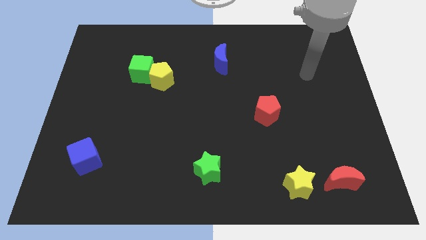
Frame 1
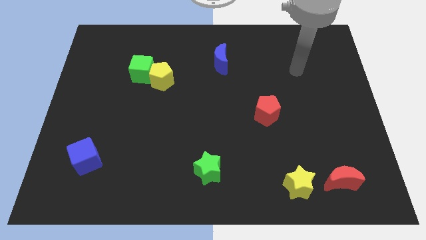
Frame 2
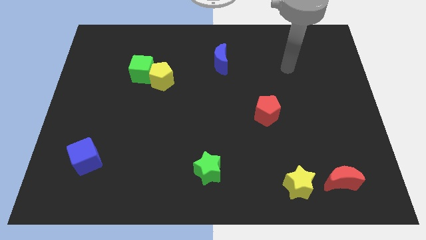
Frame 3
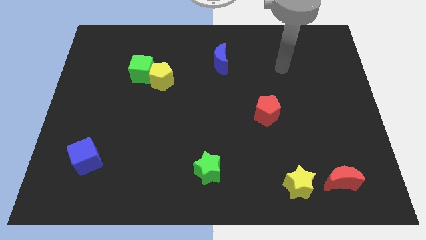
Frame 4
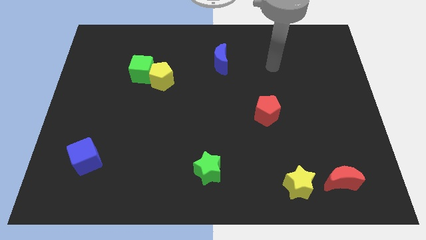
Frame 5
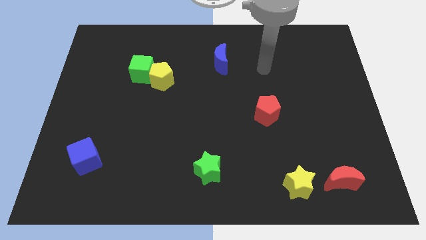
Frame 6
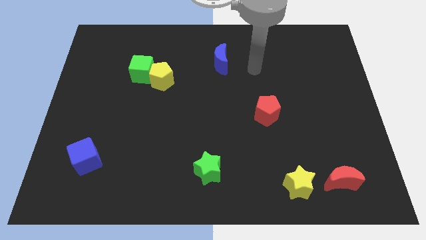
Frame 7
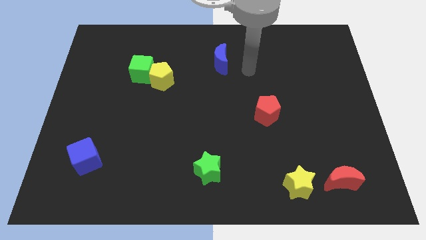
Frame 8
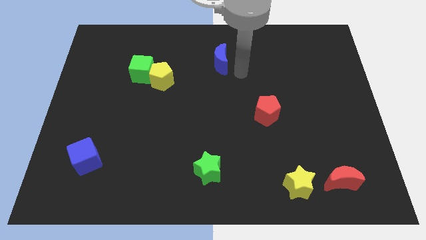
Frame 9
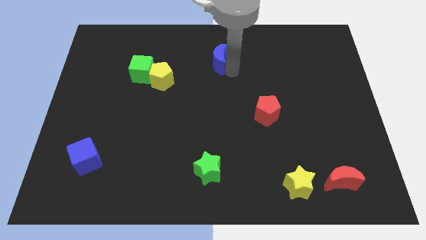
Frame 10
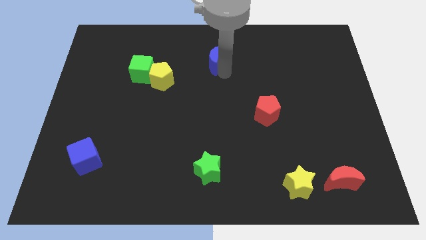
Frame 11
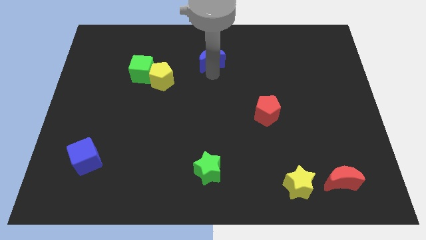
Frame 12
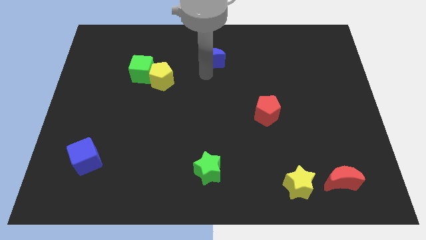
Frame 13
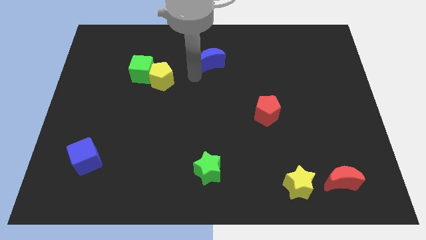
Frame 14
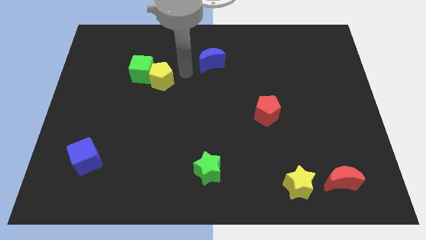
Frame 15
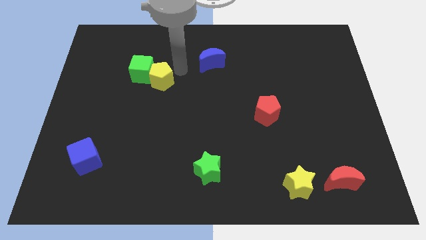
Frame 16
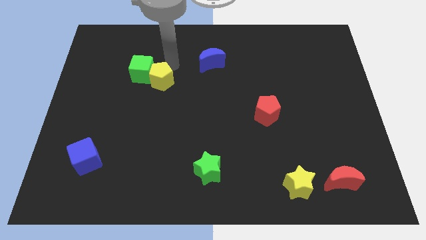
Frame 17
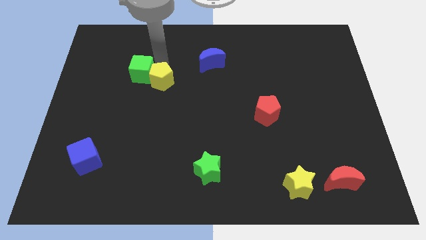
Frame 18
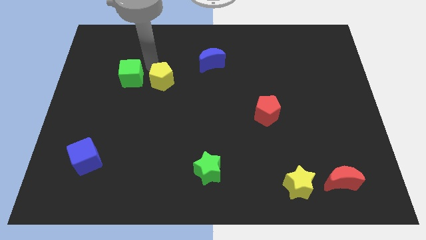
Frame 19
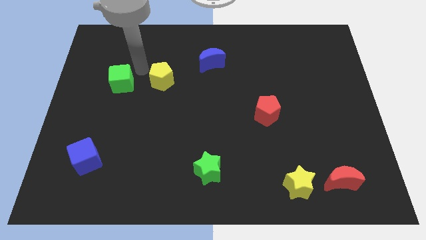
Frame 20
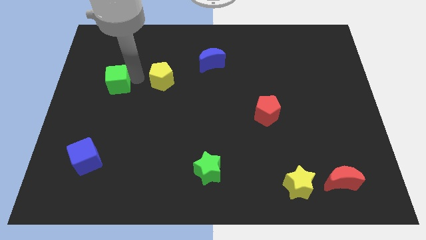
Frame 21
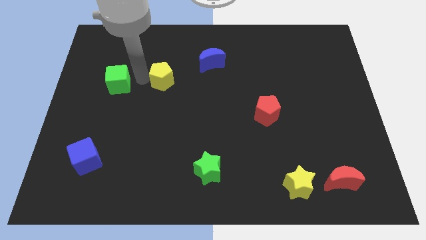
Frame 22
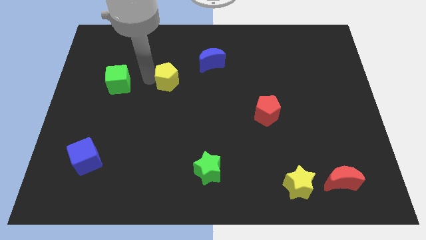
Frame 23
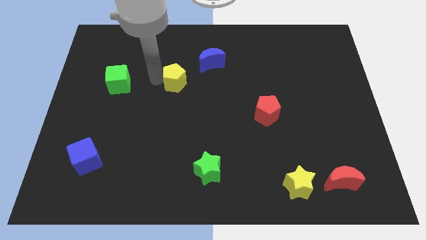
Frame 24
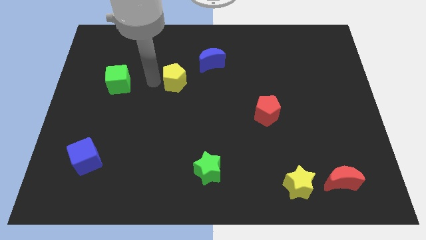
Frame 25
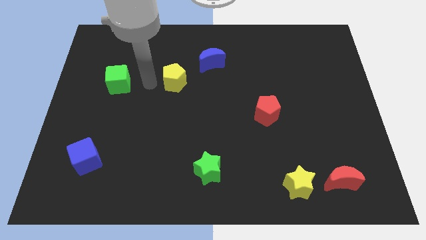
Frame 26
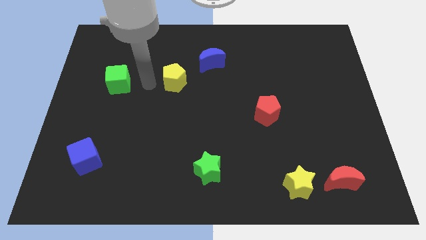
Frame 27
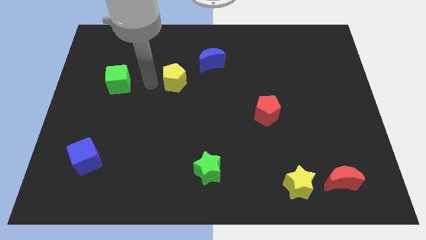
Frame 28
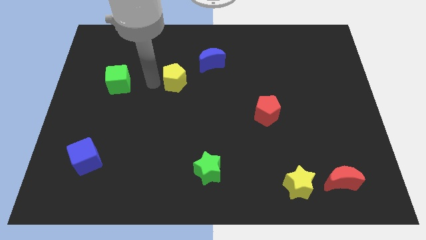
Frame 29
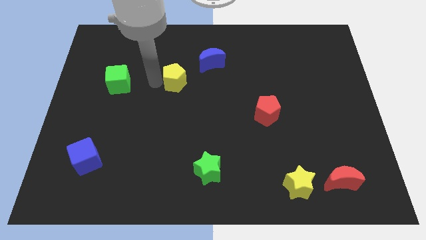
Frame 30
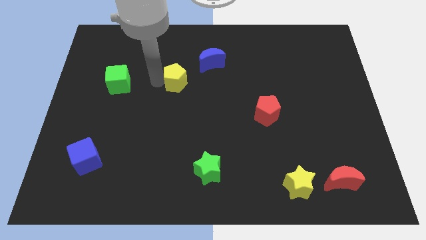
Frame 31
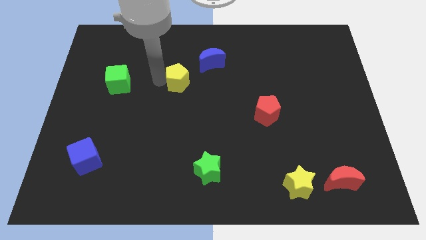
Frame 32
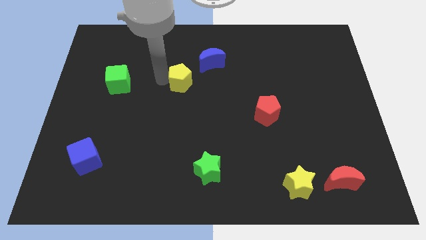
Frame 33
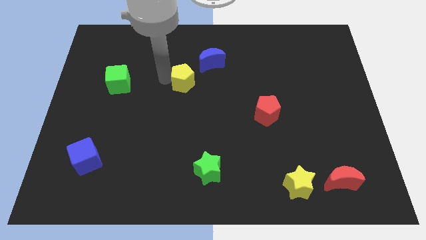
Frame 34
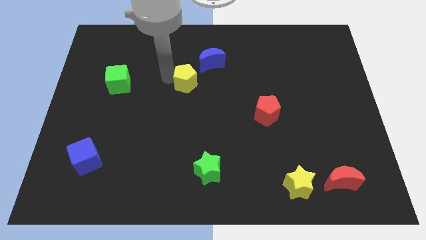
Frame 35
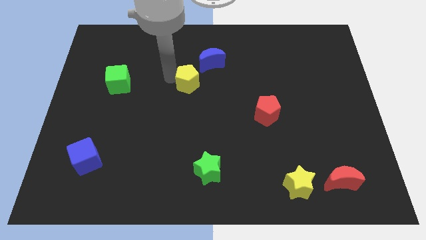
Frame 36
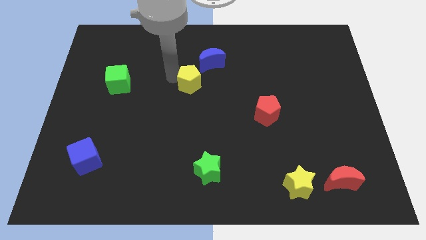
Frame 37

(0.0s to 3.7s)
slightly push the yellow pentagon to the right

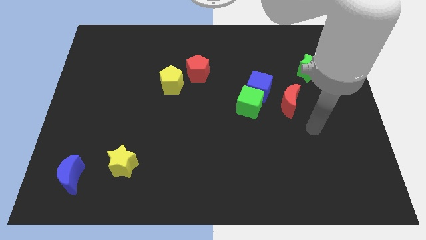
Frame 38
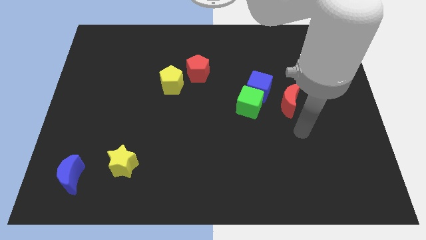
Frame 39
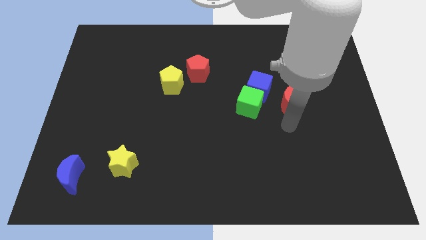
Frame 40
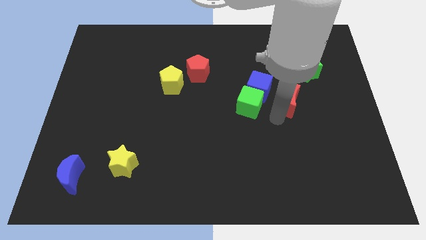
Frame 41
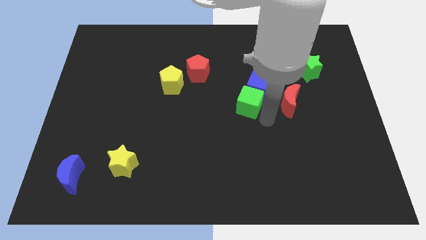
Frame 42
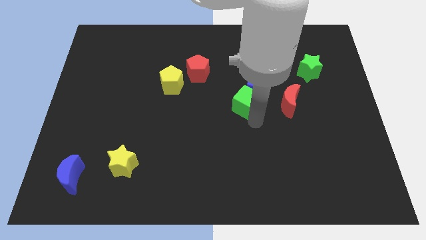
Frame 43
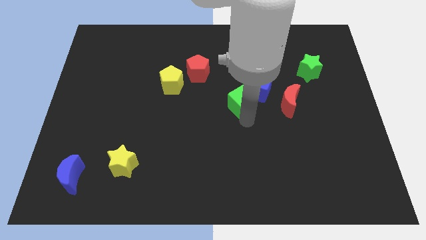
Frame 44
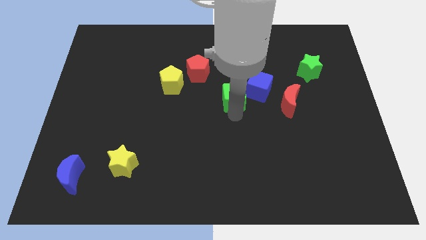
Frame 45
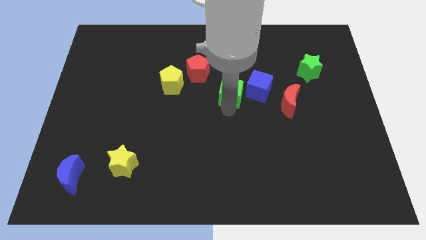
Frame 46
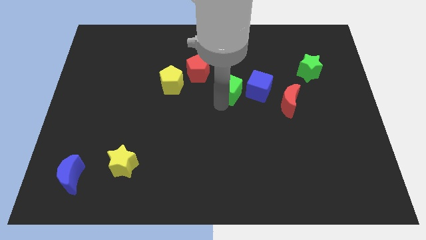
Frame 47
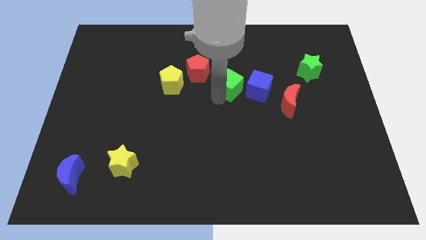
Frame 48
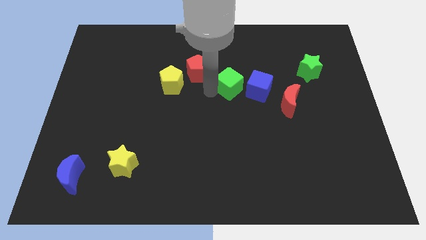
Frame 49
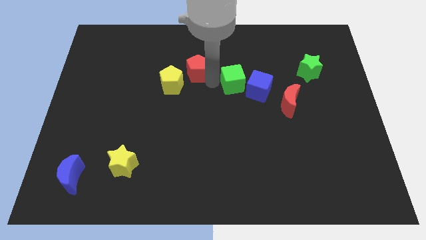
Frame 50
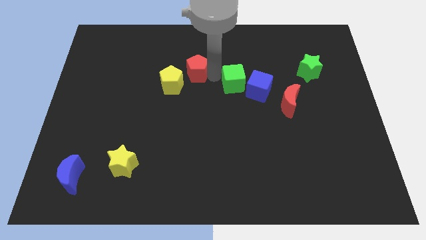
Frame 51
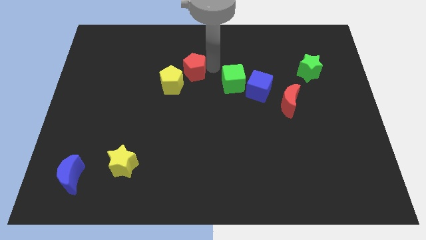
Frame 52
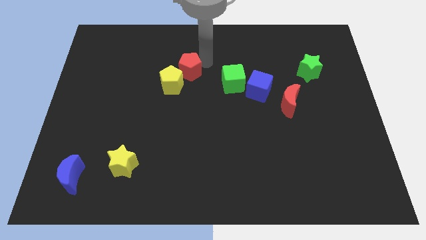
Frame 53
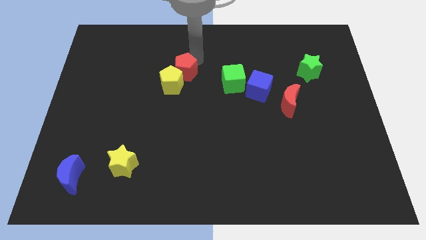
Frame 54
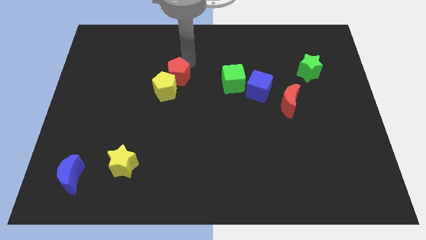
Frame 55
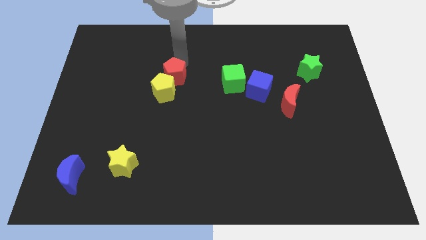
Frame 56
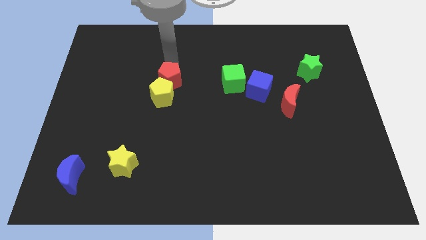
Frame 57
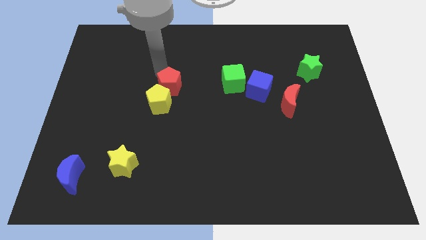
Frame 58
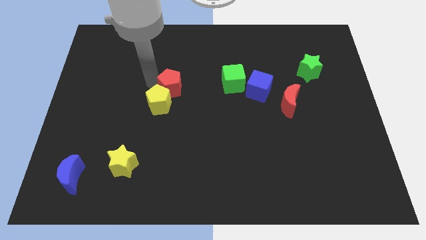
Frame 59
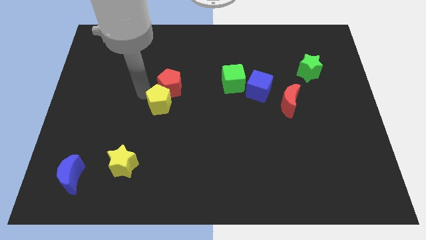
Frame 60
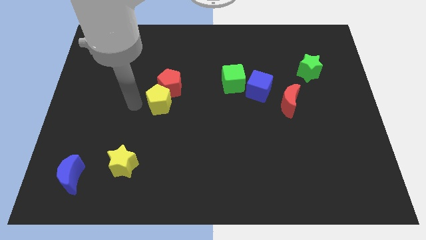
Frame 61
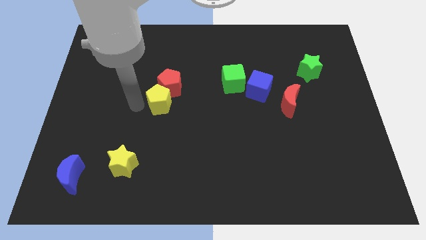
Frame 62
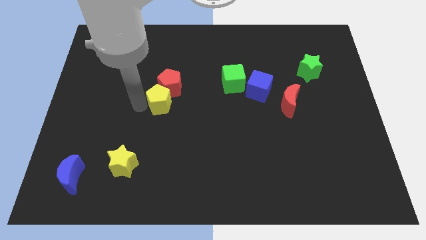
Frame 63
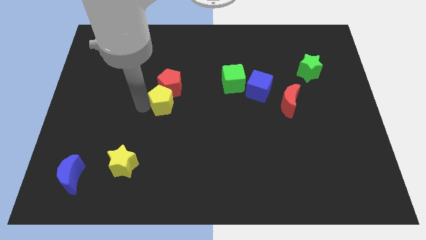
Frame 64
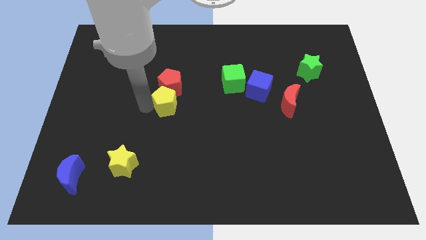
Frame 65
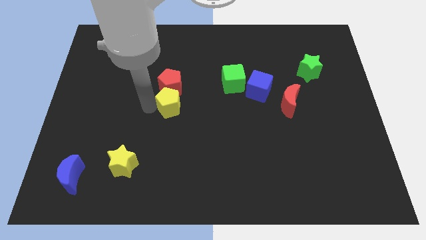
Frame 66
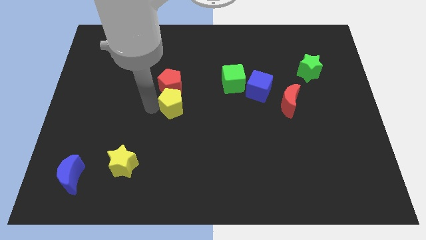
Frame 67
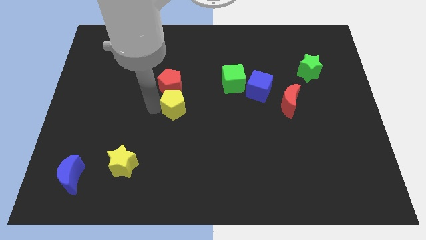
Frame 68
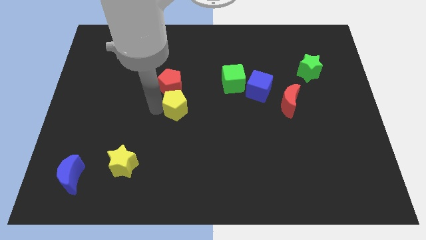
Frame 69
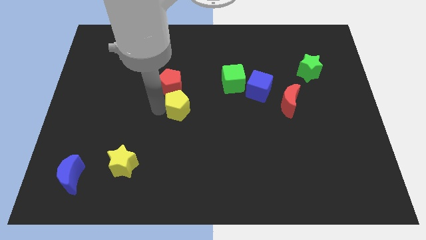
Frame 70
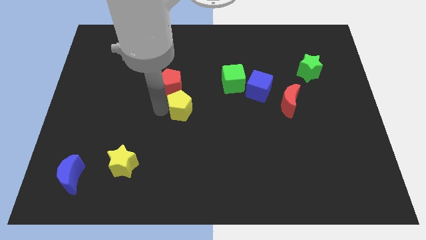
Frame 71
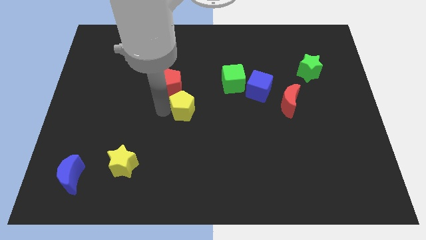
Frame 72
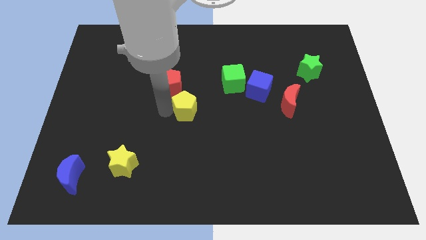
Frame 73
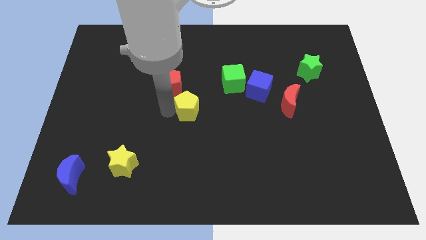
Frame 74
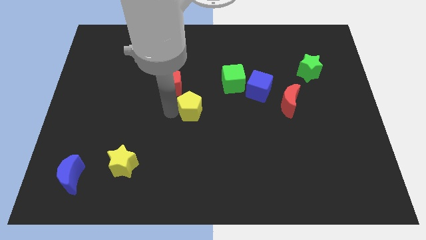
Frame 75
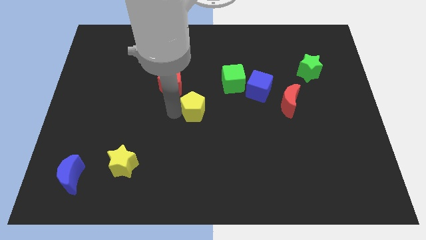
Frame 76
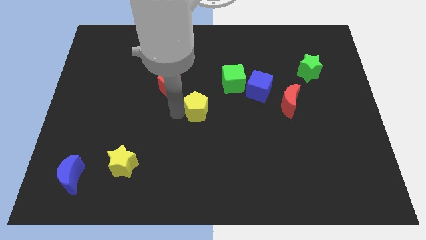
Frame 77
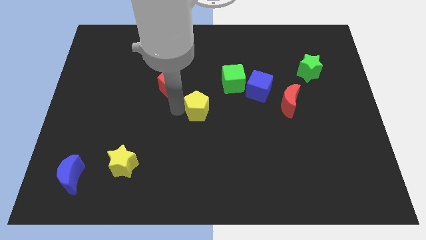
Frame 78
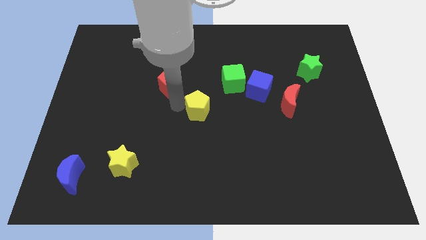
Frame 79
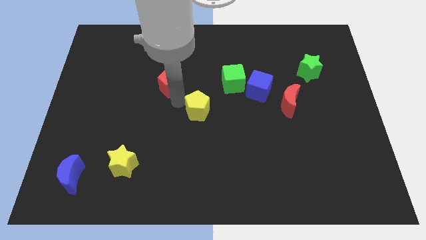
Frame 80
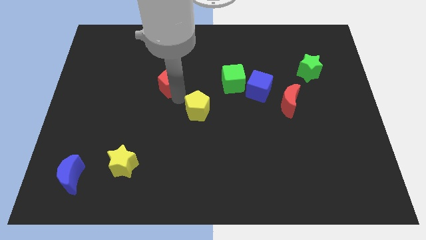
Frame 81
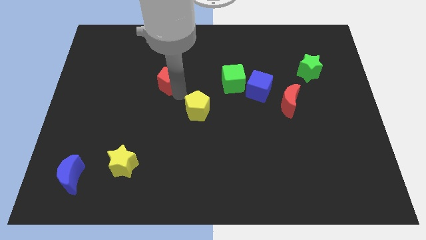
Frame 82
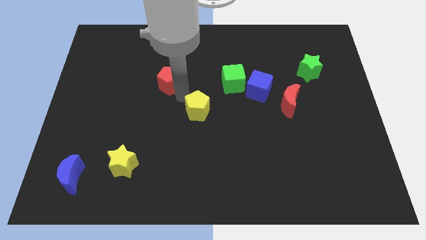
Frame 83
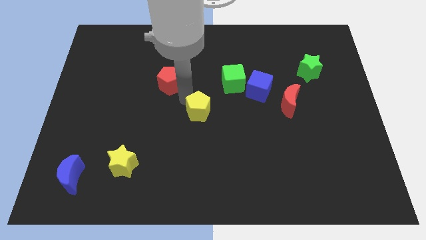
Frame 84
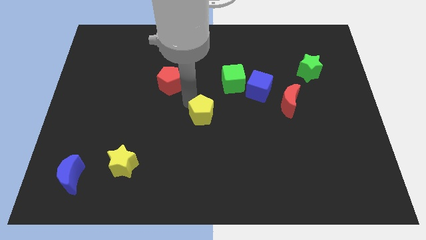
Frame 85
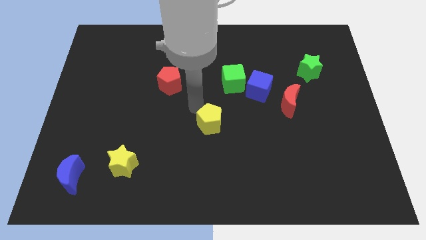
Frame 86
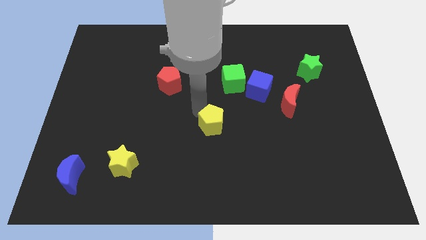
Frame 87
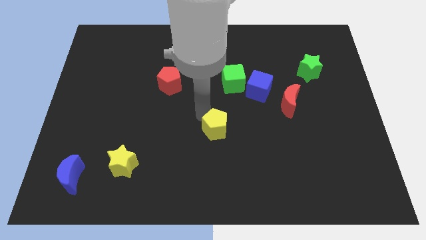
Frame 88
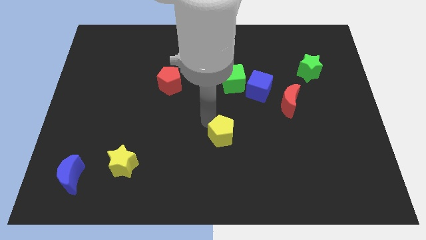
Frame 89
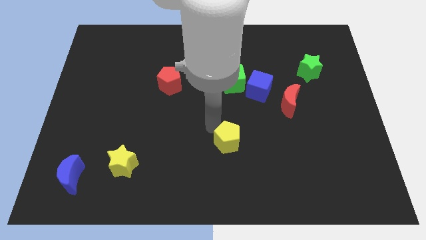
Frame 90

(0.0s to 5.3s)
move the yellow pentagon downwards and then right
